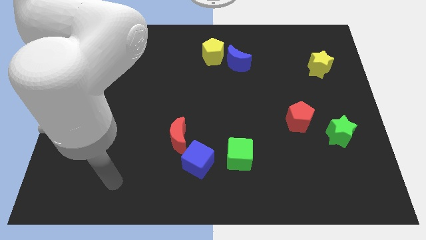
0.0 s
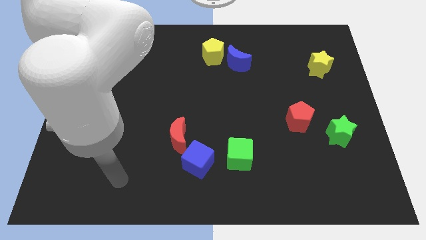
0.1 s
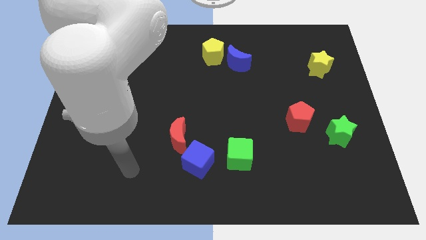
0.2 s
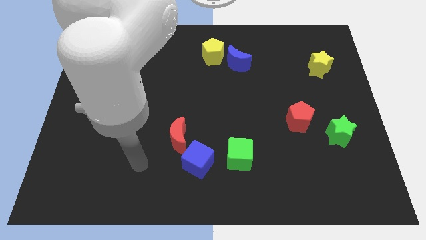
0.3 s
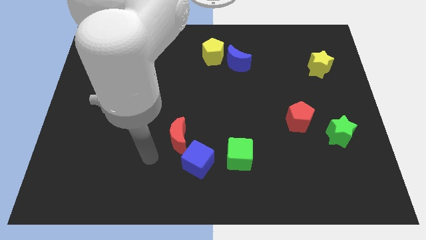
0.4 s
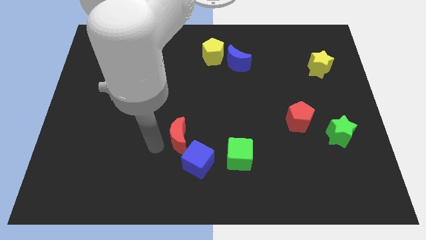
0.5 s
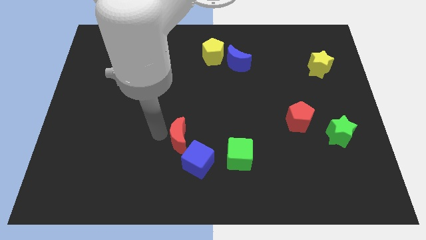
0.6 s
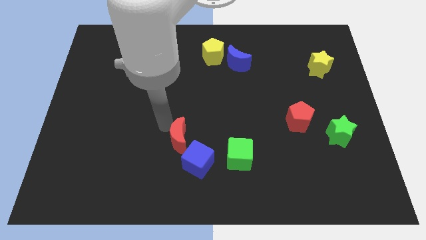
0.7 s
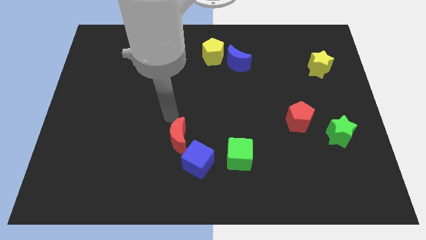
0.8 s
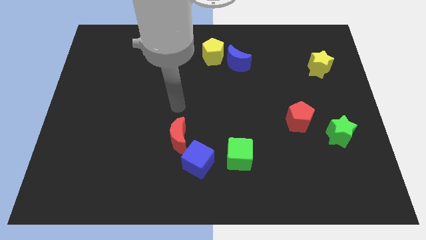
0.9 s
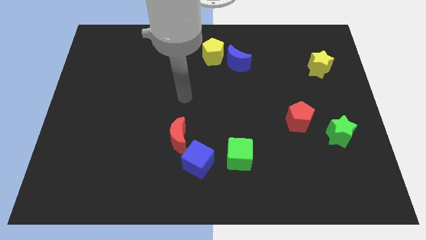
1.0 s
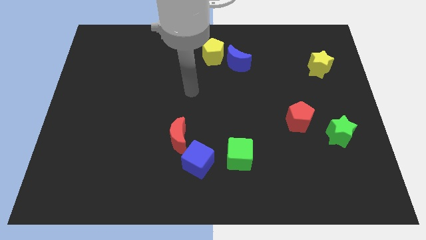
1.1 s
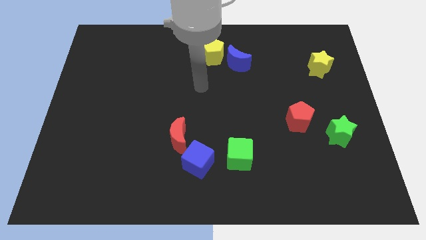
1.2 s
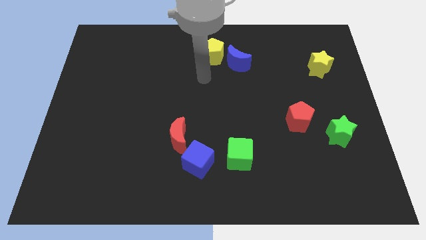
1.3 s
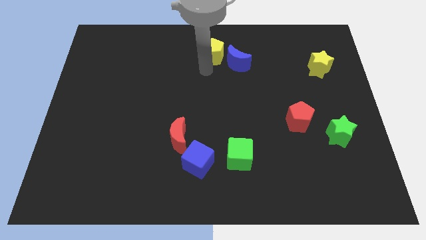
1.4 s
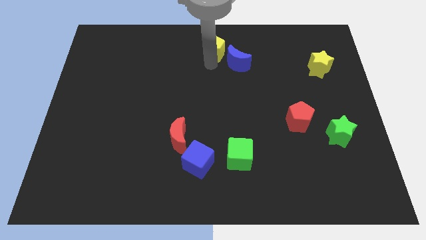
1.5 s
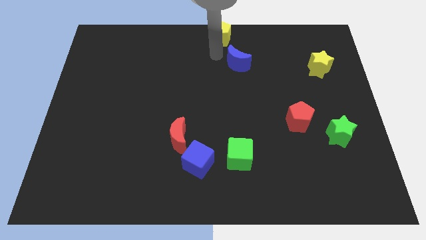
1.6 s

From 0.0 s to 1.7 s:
pull the blue moon apart from the yellow pentagon

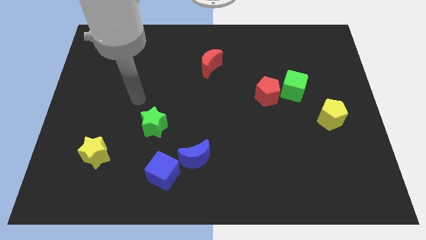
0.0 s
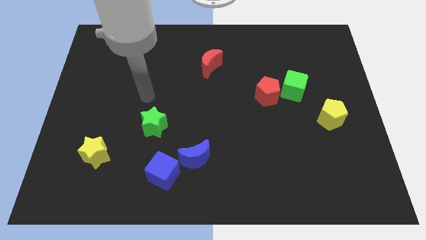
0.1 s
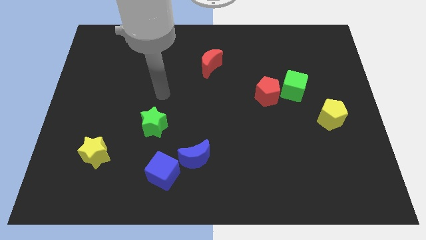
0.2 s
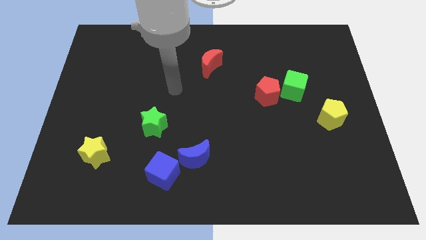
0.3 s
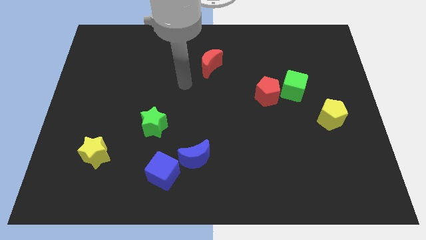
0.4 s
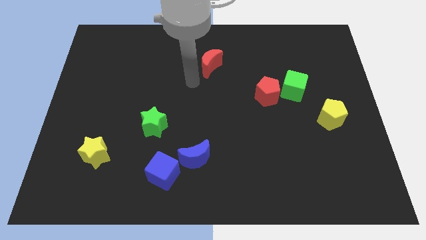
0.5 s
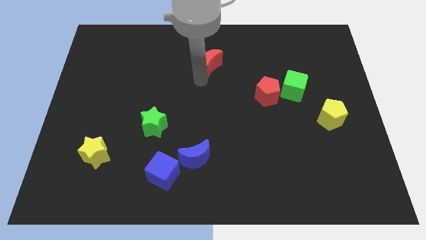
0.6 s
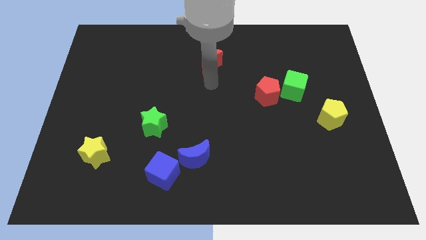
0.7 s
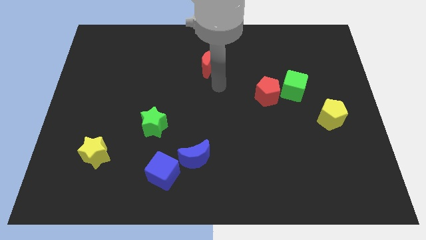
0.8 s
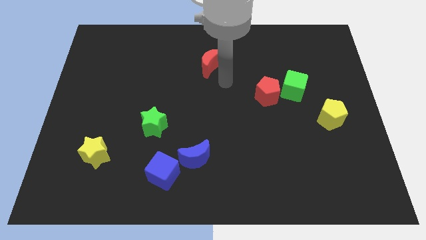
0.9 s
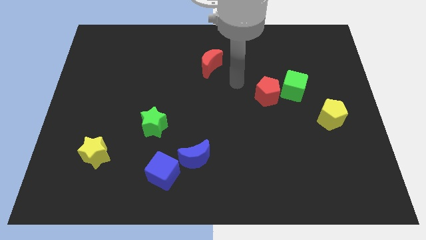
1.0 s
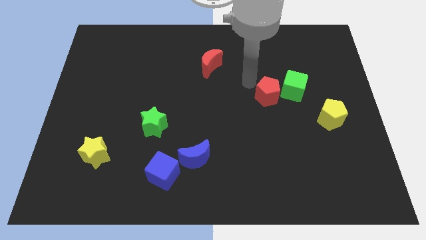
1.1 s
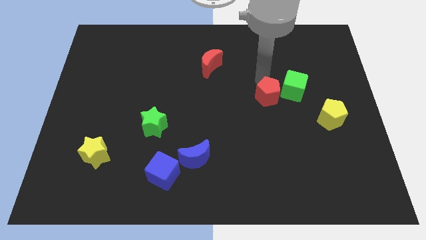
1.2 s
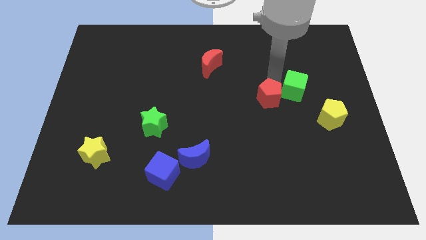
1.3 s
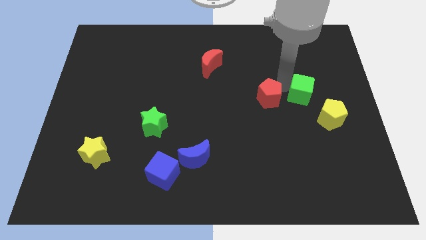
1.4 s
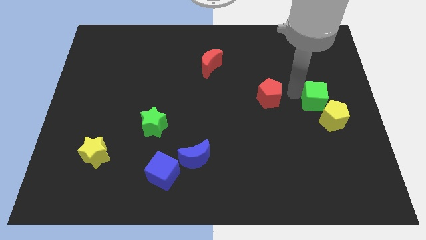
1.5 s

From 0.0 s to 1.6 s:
separate the red pentagon from the green cube

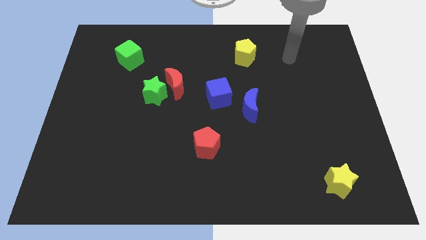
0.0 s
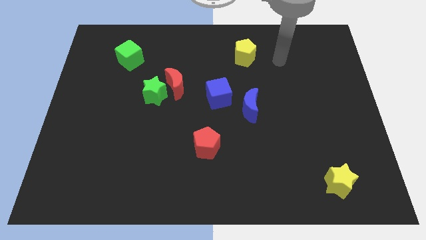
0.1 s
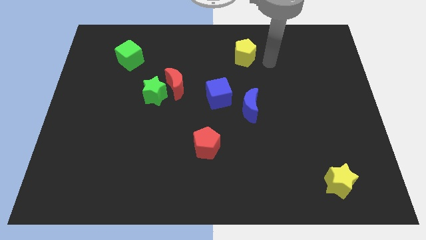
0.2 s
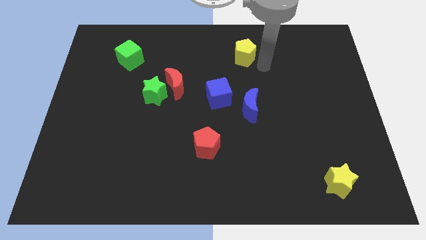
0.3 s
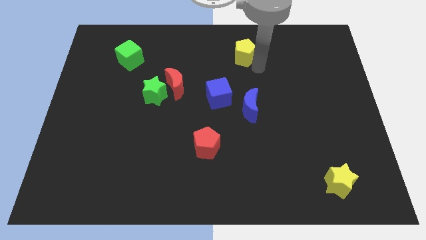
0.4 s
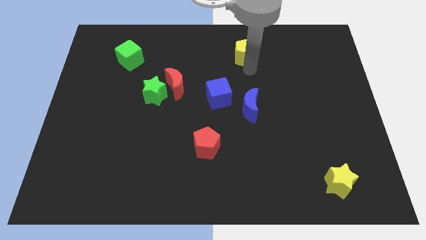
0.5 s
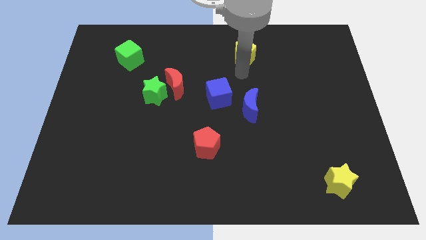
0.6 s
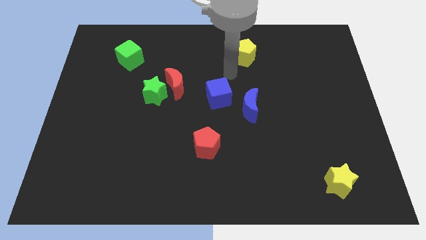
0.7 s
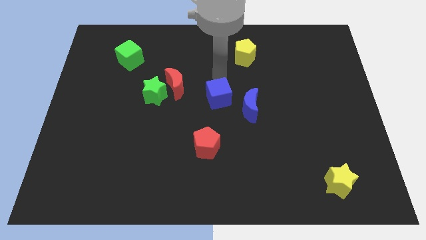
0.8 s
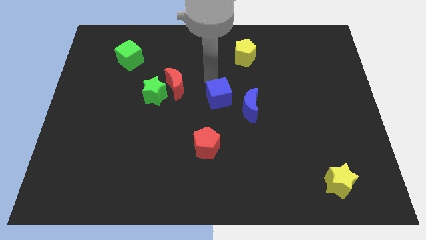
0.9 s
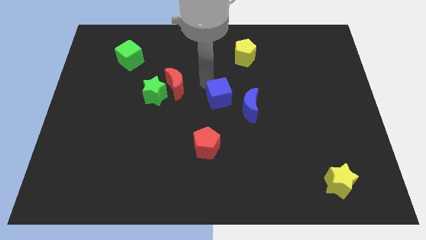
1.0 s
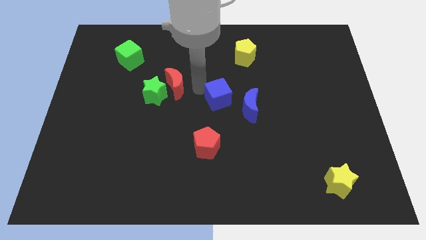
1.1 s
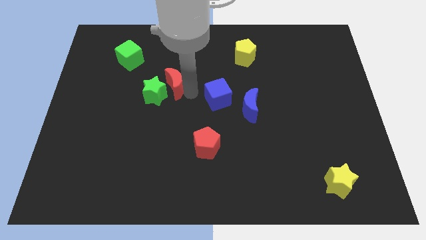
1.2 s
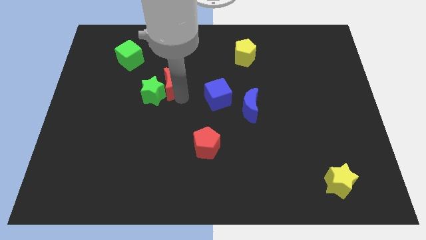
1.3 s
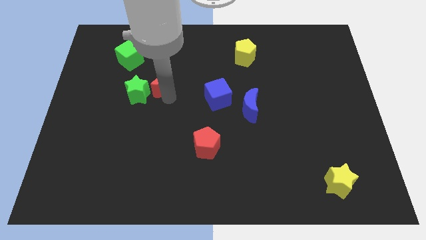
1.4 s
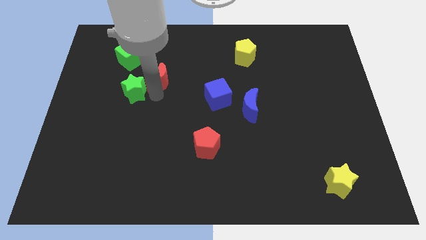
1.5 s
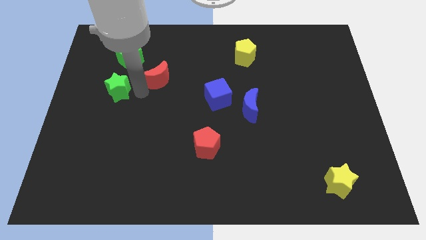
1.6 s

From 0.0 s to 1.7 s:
move the red moon away from the green star

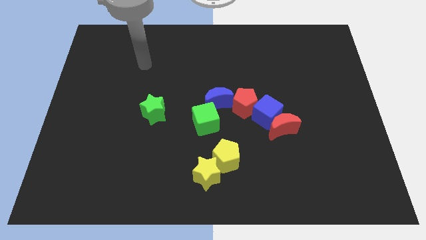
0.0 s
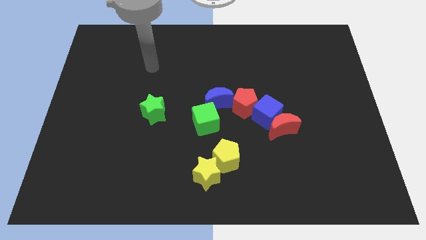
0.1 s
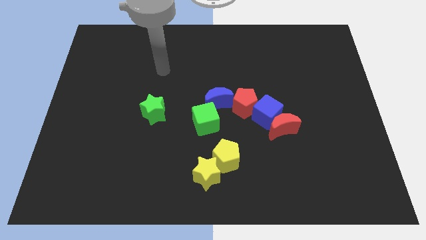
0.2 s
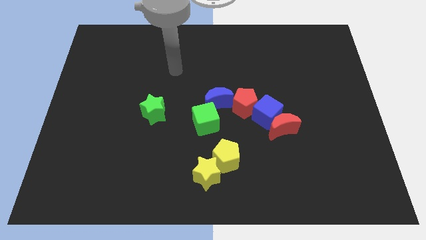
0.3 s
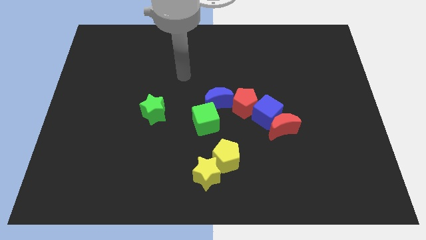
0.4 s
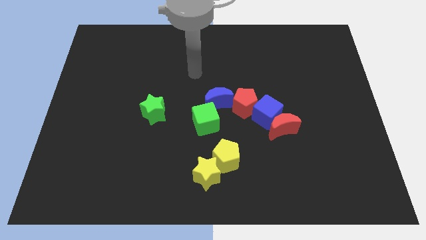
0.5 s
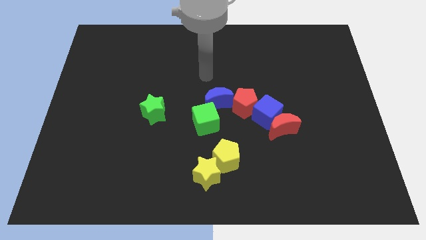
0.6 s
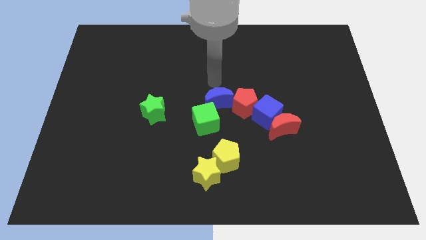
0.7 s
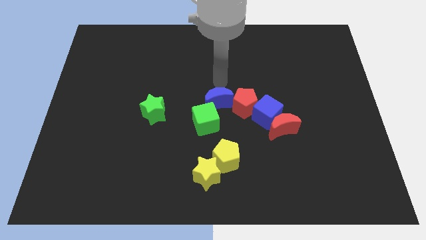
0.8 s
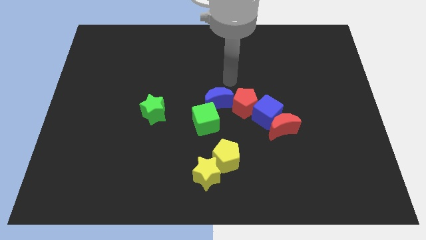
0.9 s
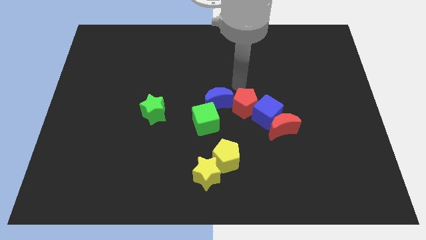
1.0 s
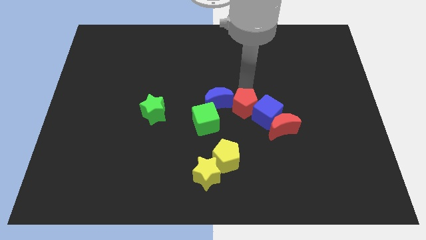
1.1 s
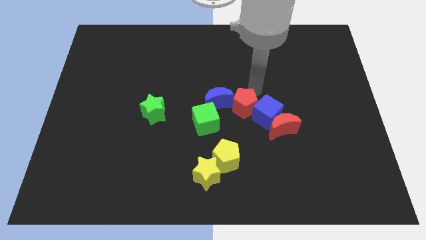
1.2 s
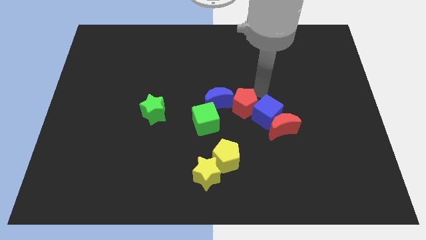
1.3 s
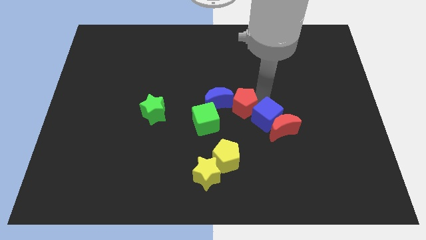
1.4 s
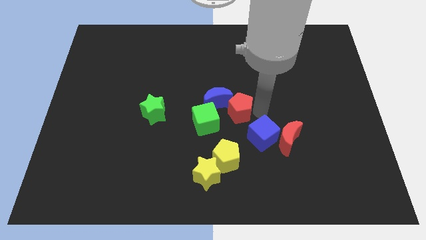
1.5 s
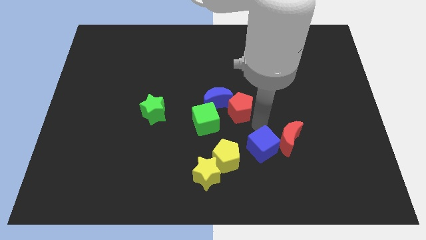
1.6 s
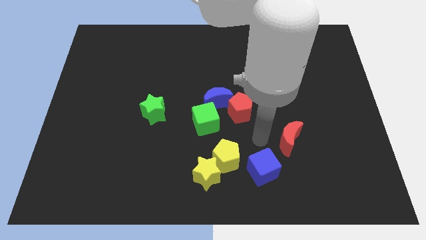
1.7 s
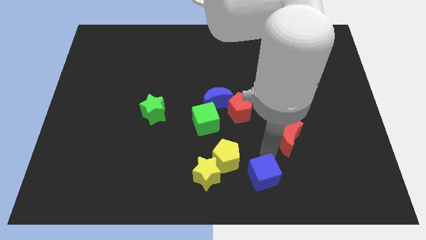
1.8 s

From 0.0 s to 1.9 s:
separate the red moon from the blue cube

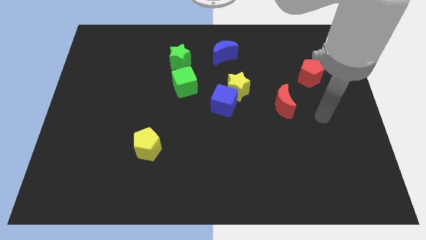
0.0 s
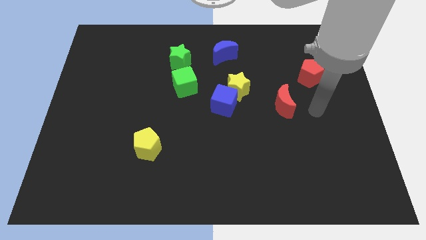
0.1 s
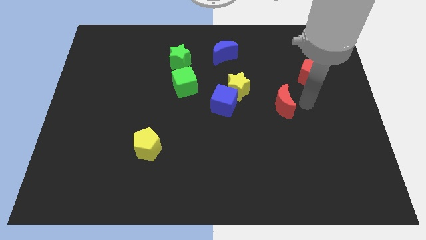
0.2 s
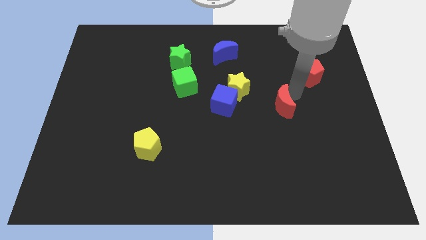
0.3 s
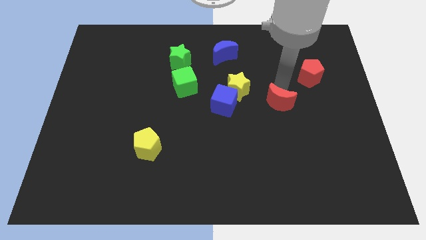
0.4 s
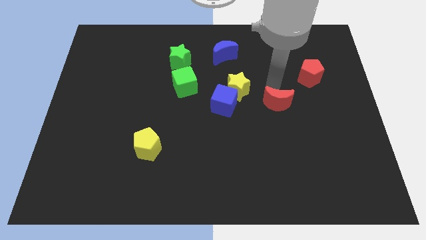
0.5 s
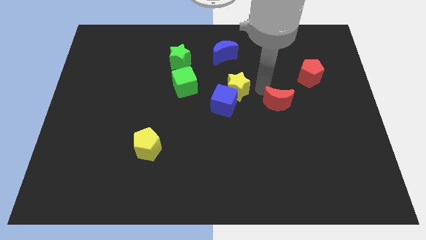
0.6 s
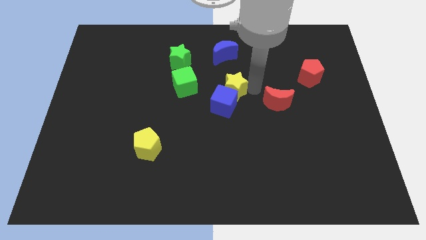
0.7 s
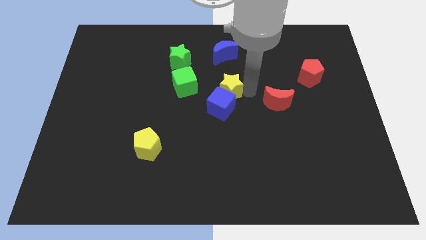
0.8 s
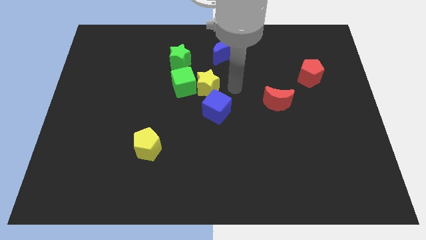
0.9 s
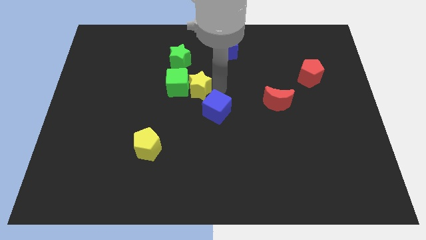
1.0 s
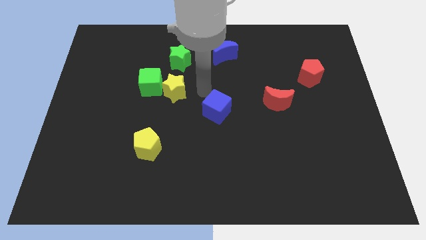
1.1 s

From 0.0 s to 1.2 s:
pull the blue cube apart from the yellow star

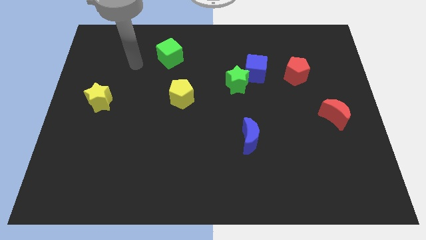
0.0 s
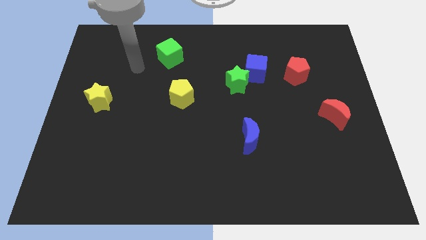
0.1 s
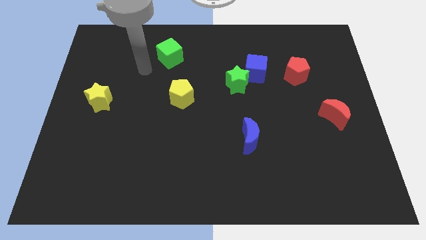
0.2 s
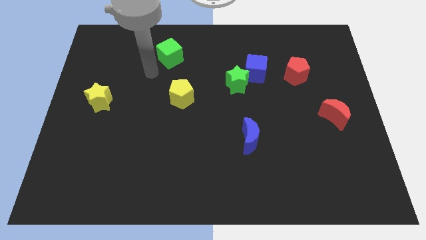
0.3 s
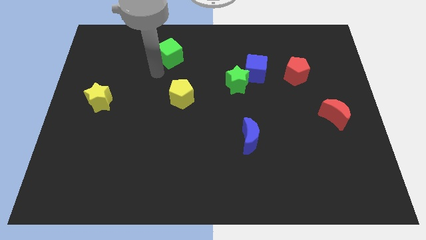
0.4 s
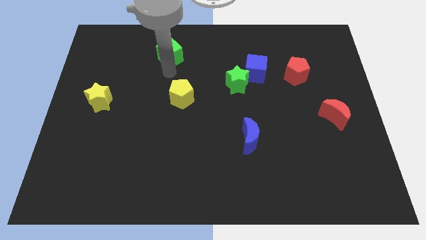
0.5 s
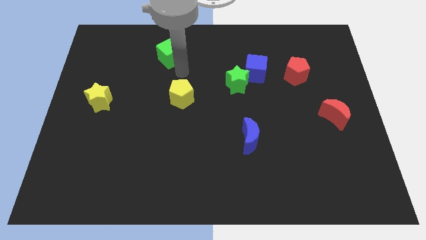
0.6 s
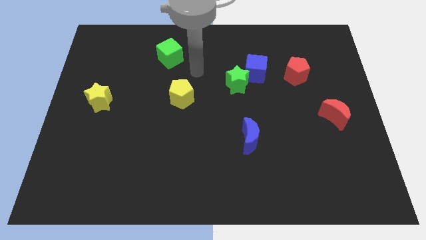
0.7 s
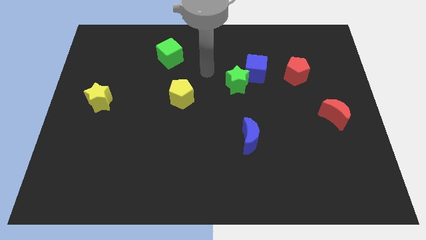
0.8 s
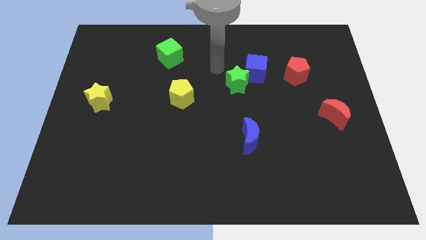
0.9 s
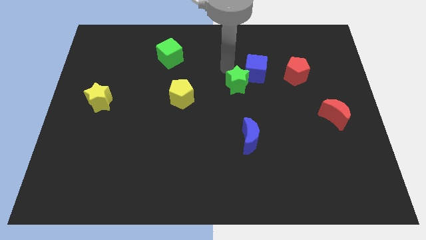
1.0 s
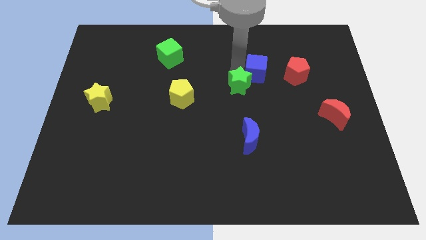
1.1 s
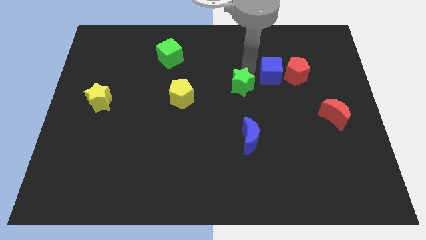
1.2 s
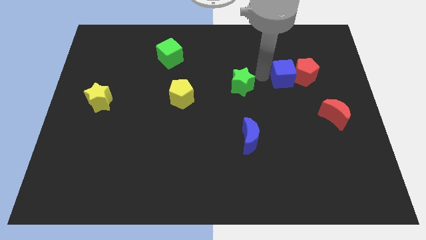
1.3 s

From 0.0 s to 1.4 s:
move the green star away from the blue cube

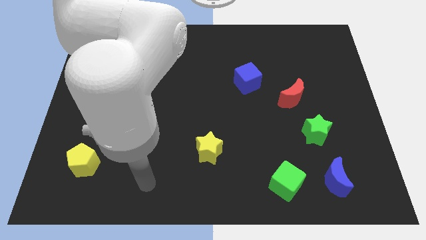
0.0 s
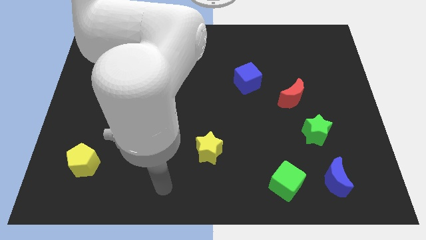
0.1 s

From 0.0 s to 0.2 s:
separate the blue moon from the green cube
